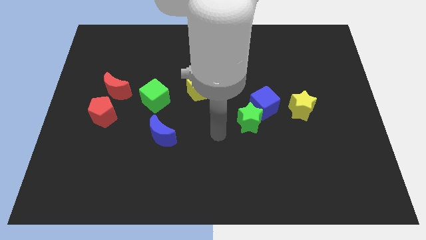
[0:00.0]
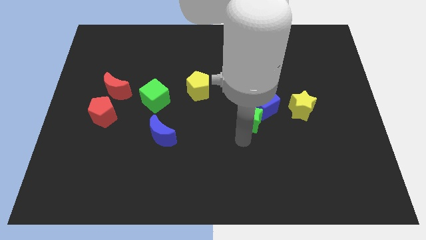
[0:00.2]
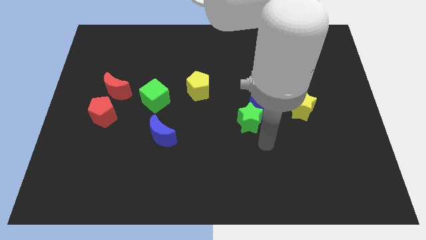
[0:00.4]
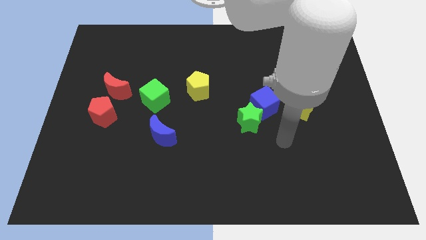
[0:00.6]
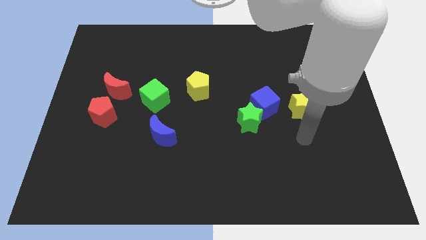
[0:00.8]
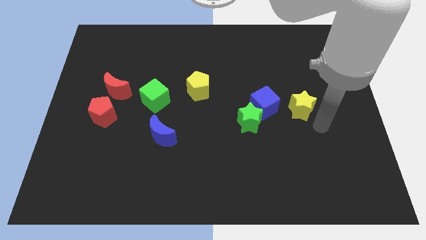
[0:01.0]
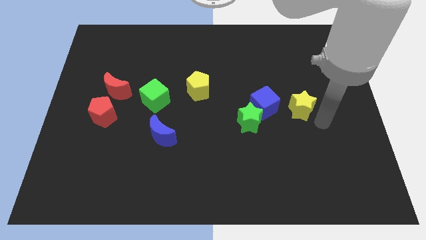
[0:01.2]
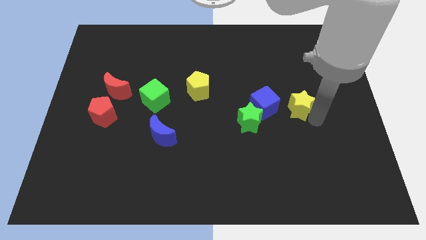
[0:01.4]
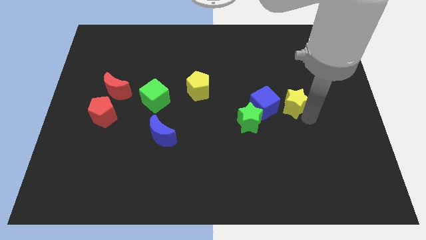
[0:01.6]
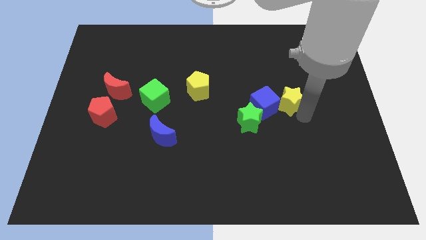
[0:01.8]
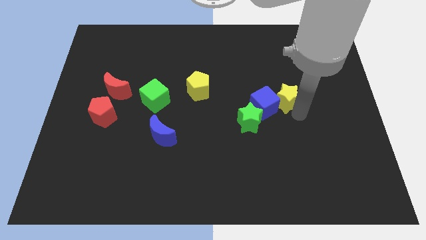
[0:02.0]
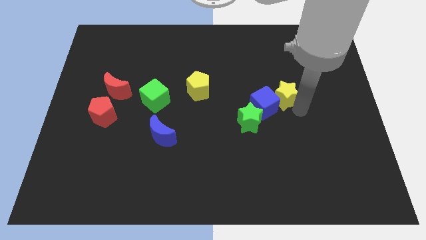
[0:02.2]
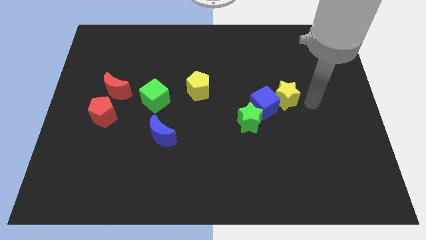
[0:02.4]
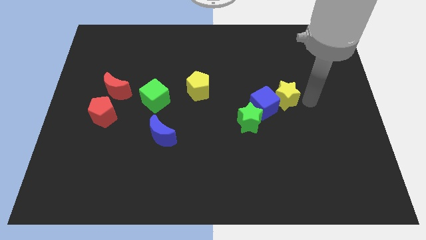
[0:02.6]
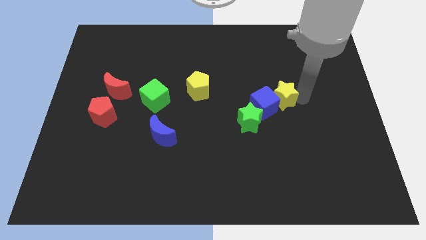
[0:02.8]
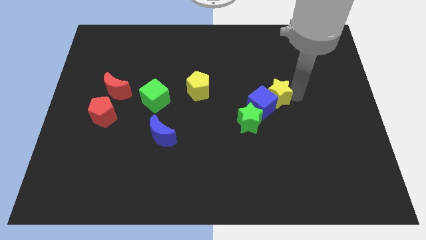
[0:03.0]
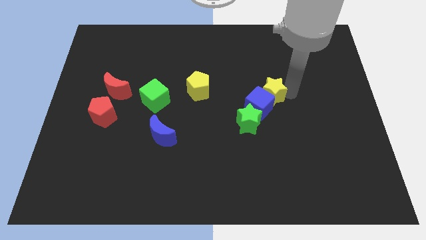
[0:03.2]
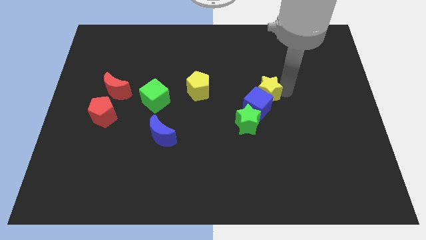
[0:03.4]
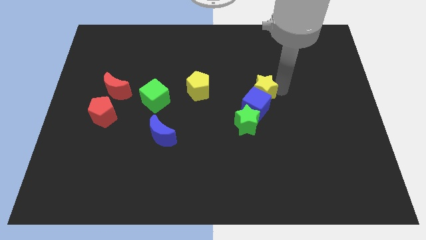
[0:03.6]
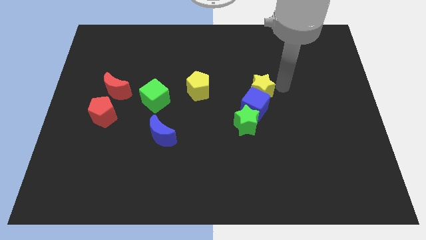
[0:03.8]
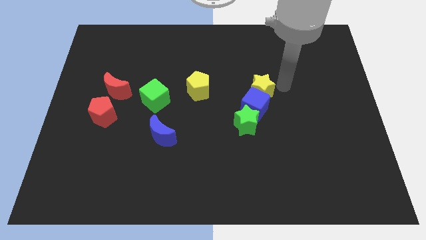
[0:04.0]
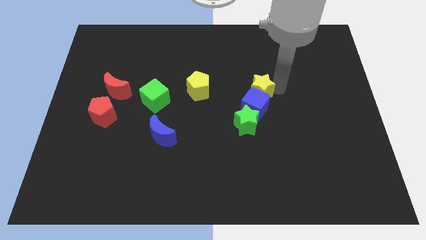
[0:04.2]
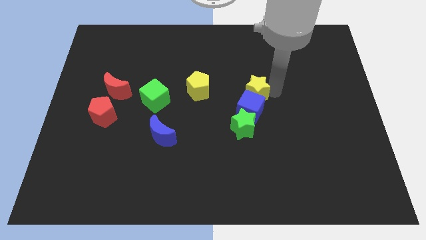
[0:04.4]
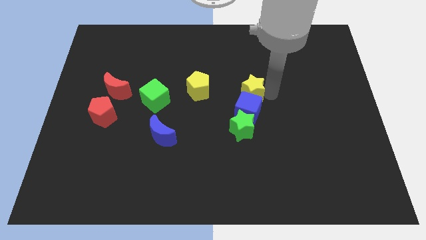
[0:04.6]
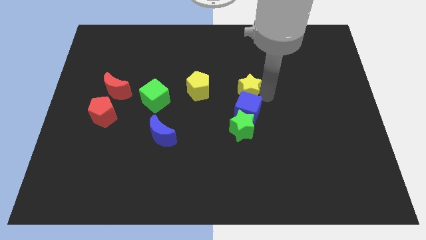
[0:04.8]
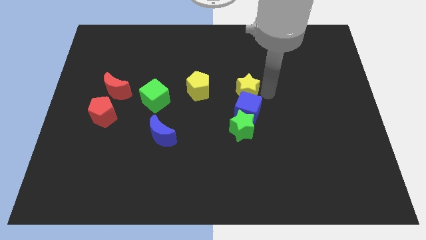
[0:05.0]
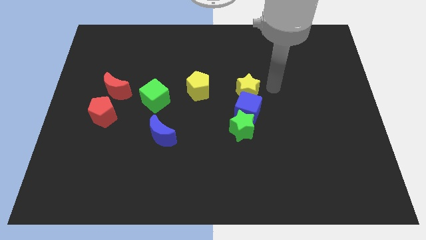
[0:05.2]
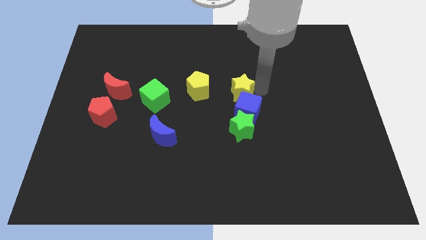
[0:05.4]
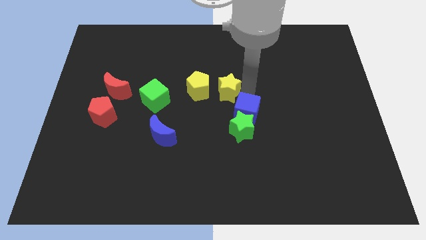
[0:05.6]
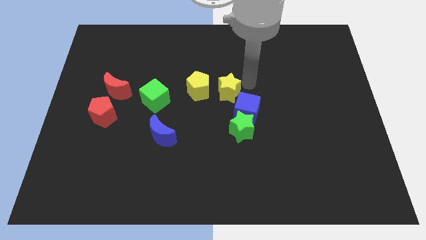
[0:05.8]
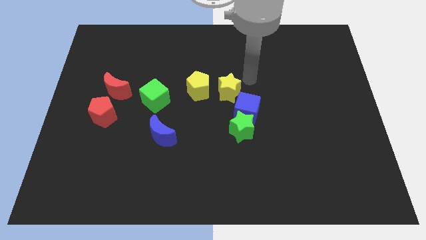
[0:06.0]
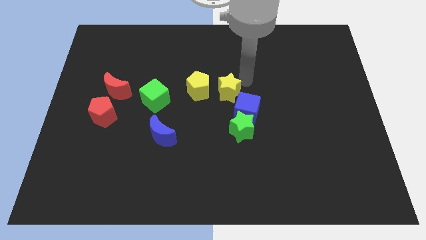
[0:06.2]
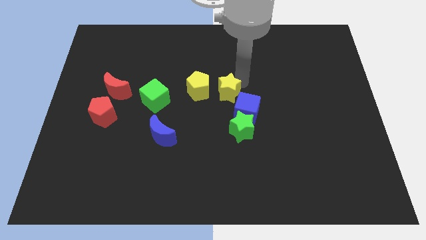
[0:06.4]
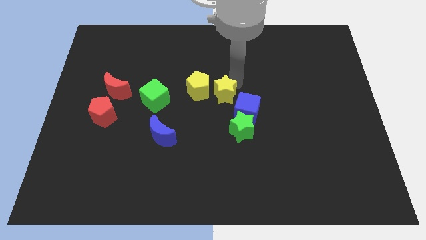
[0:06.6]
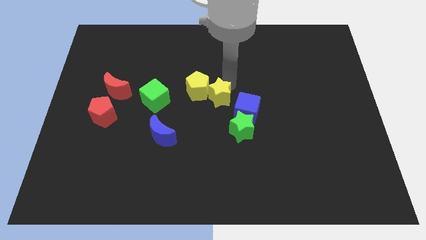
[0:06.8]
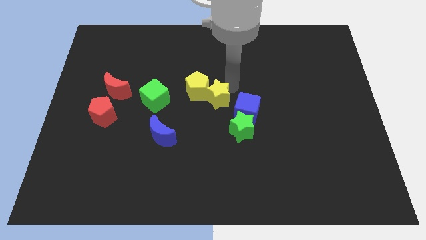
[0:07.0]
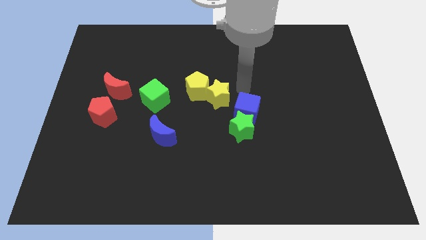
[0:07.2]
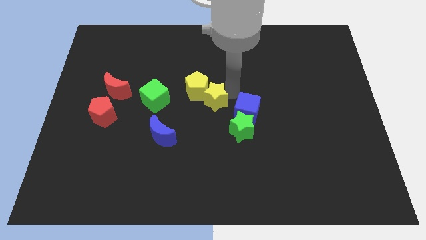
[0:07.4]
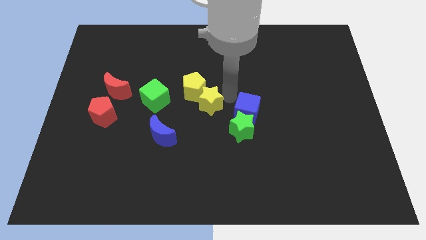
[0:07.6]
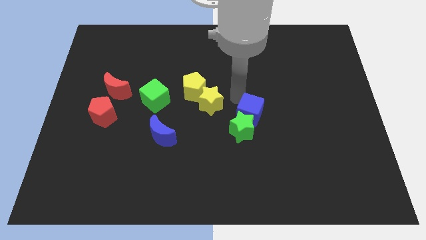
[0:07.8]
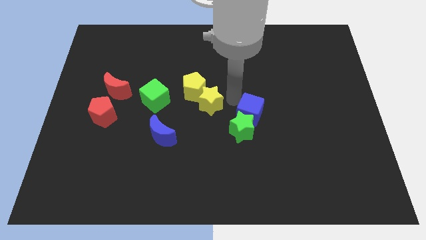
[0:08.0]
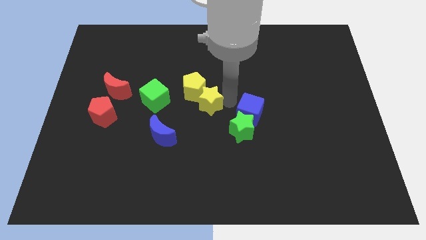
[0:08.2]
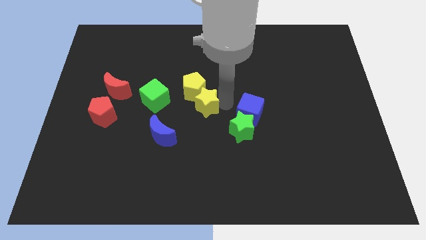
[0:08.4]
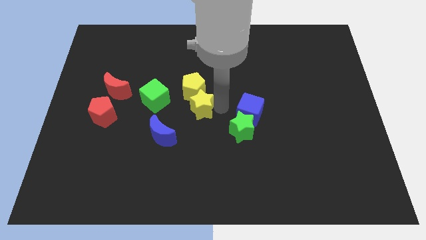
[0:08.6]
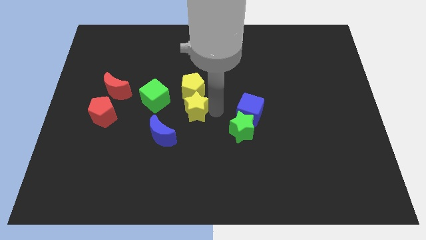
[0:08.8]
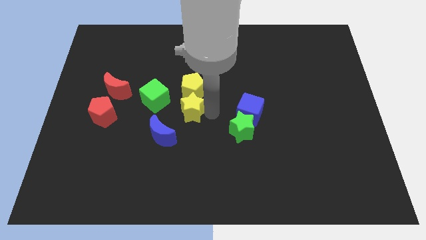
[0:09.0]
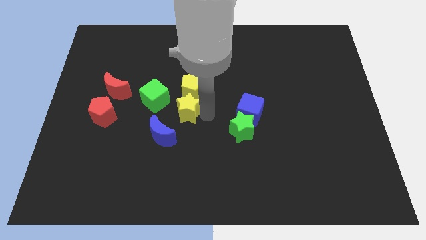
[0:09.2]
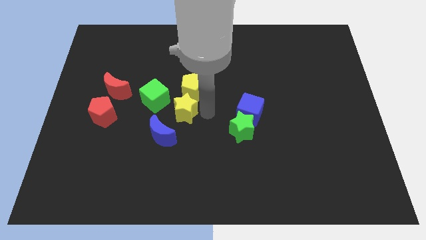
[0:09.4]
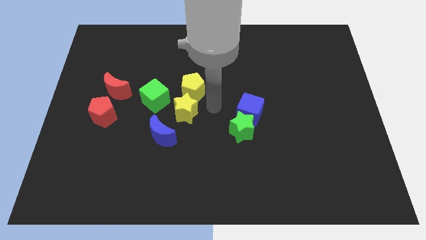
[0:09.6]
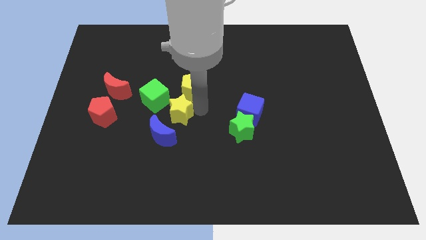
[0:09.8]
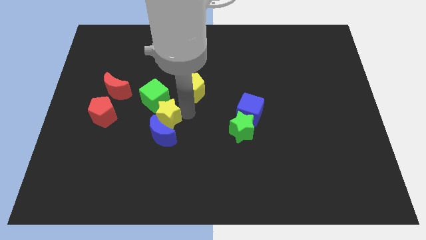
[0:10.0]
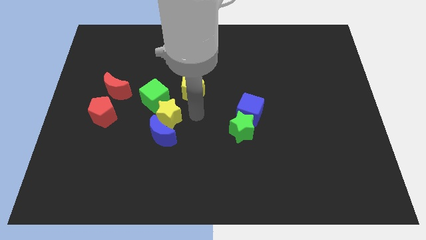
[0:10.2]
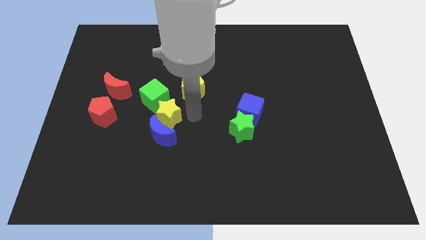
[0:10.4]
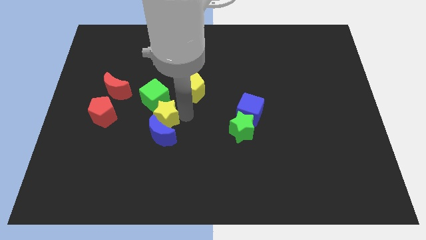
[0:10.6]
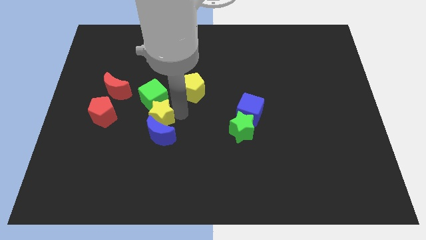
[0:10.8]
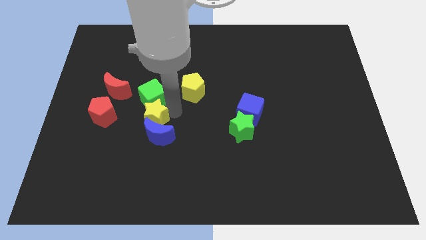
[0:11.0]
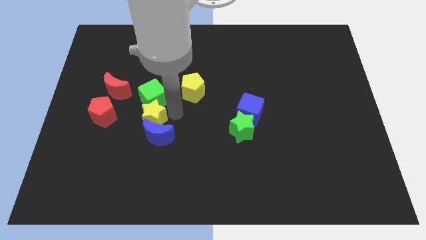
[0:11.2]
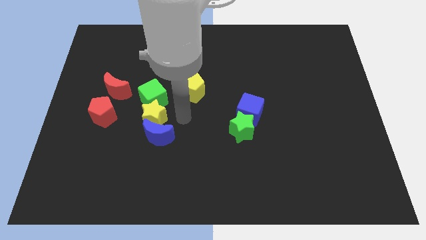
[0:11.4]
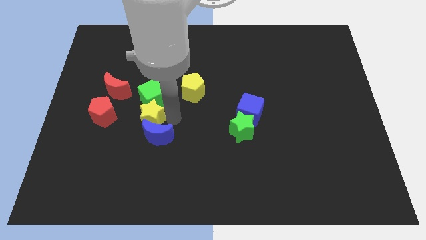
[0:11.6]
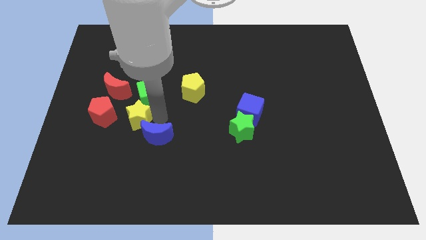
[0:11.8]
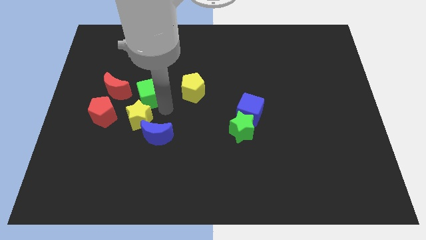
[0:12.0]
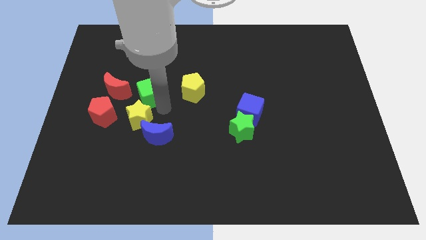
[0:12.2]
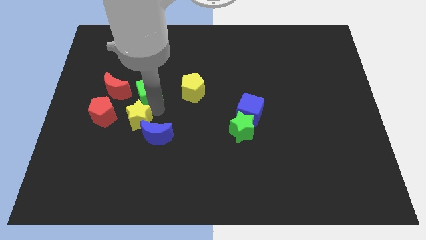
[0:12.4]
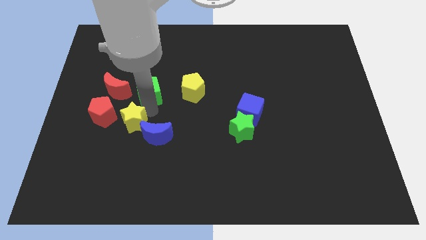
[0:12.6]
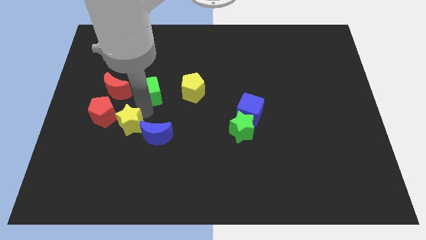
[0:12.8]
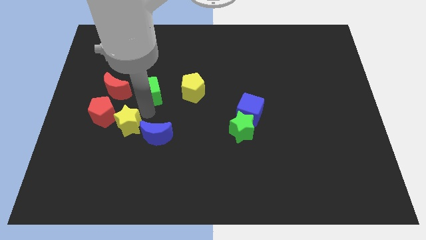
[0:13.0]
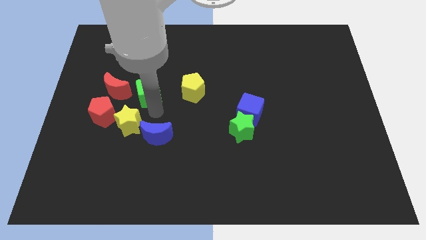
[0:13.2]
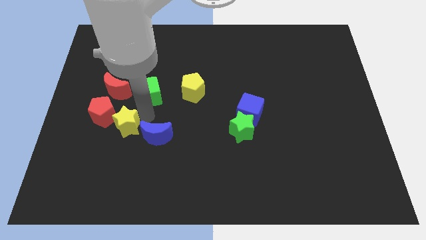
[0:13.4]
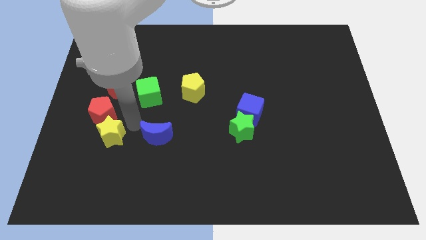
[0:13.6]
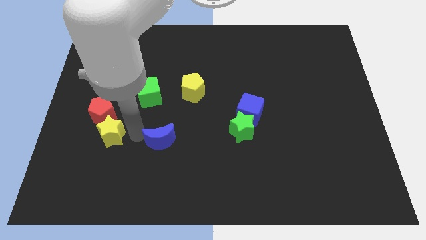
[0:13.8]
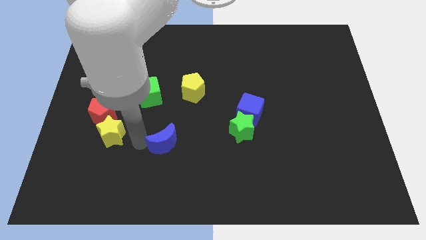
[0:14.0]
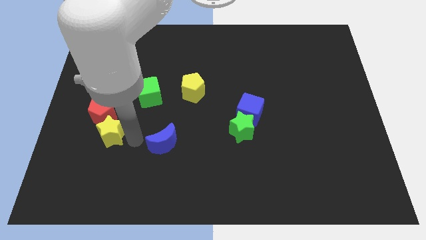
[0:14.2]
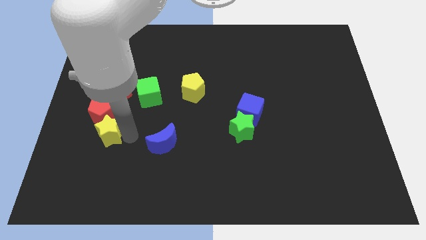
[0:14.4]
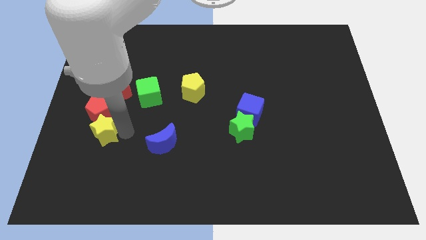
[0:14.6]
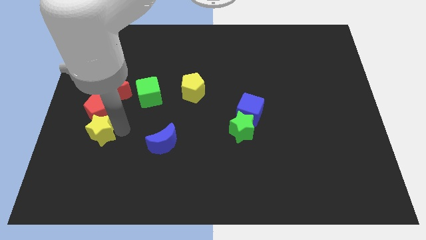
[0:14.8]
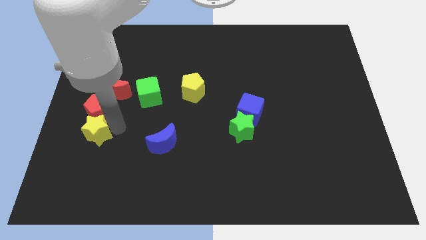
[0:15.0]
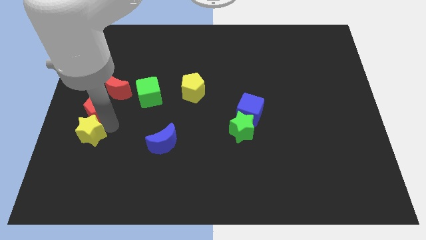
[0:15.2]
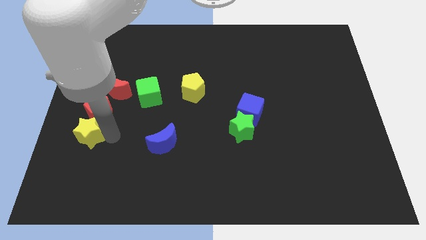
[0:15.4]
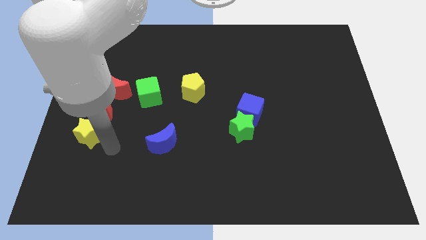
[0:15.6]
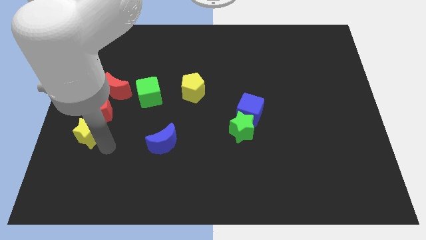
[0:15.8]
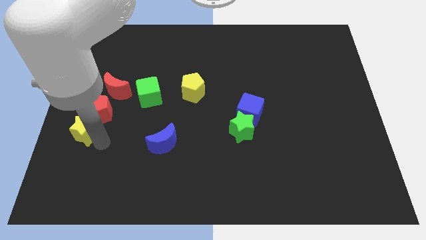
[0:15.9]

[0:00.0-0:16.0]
move the yellow star to the left side
